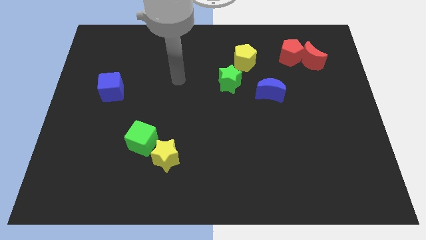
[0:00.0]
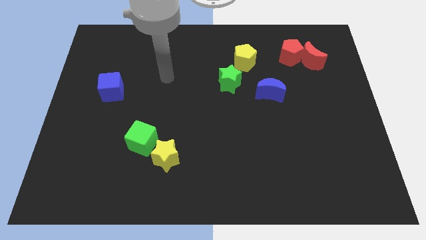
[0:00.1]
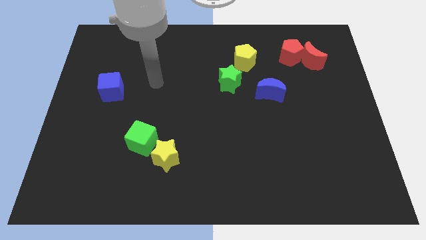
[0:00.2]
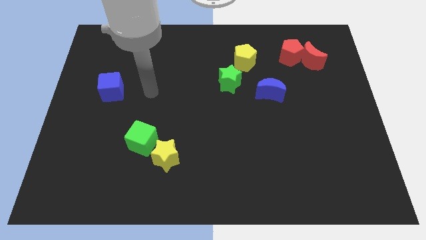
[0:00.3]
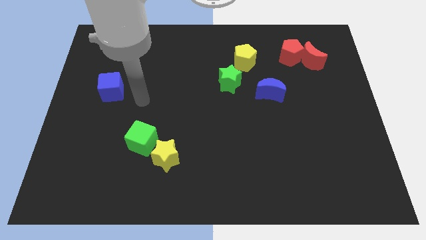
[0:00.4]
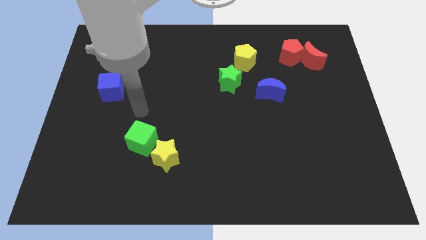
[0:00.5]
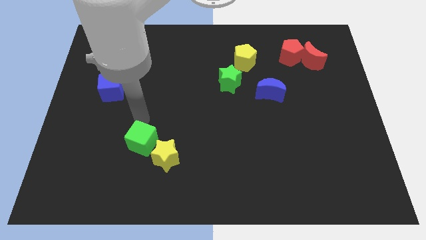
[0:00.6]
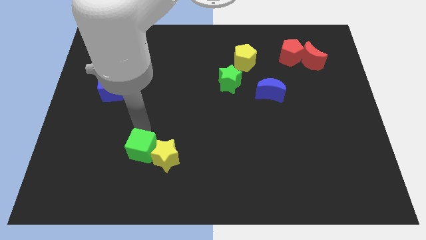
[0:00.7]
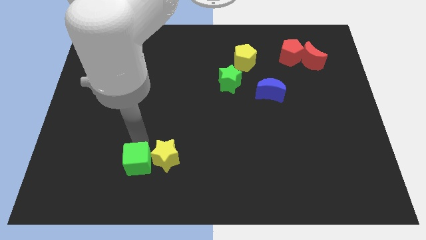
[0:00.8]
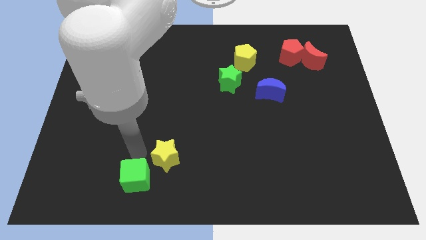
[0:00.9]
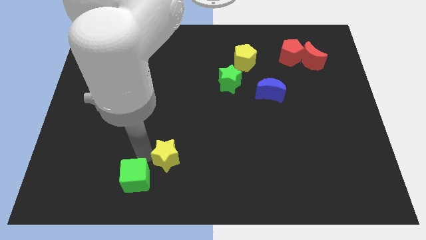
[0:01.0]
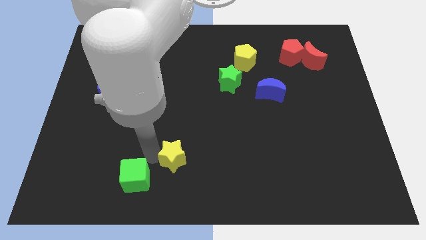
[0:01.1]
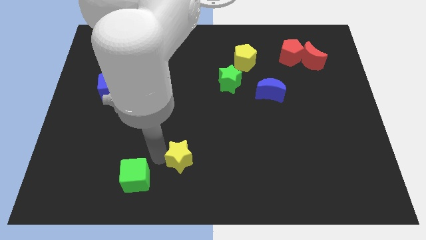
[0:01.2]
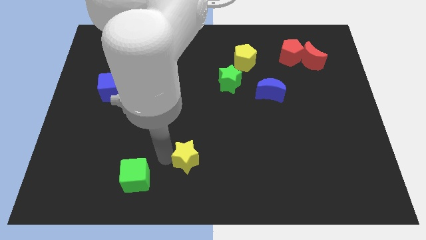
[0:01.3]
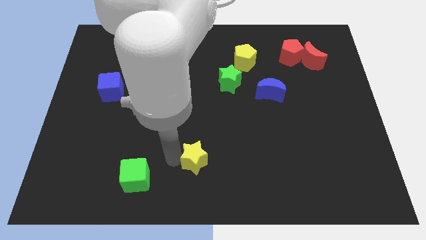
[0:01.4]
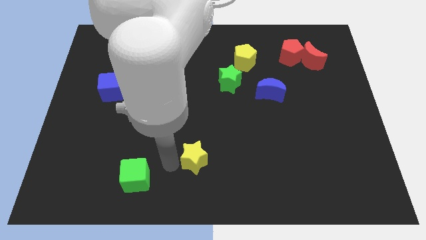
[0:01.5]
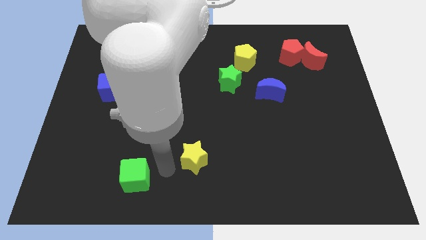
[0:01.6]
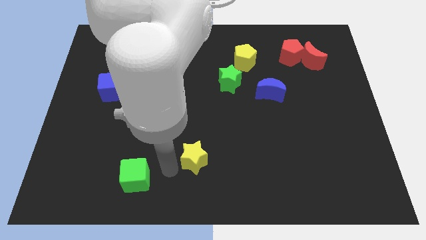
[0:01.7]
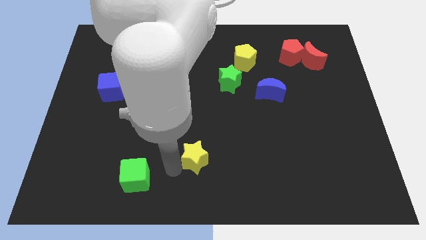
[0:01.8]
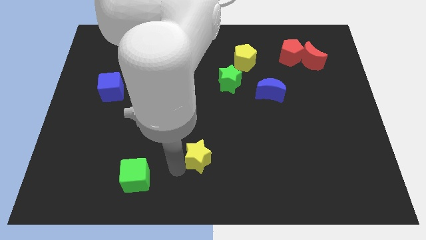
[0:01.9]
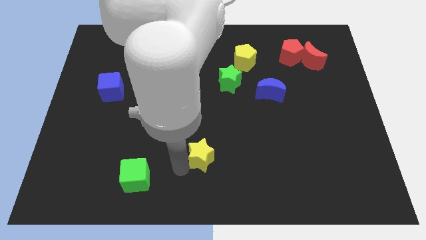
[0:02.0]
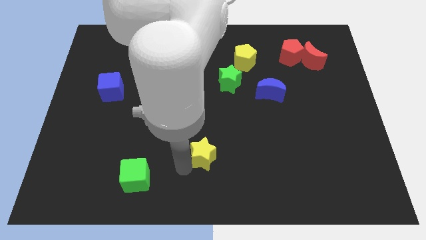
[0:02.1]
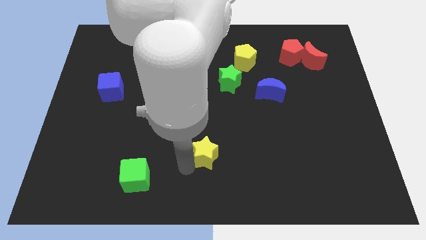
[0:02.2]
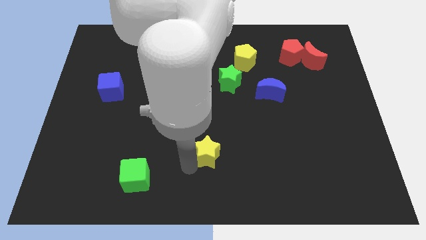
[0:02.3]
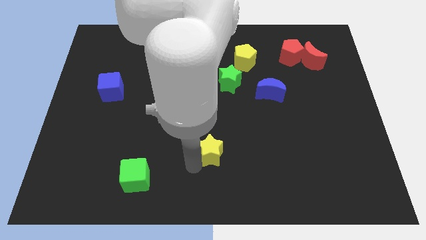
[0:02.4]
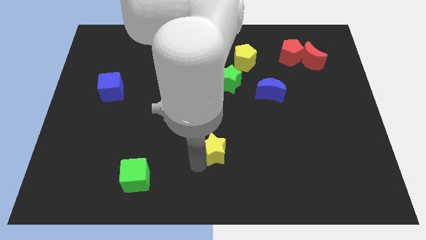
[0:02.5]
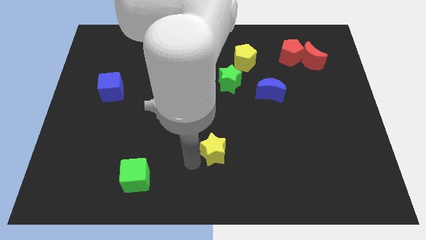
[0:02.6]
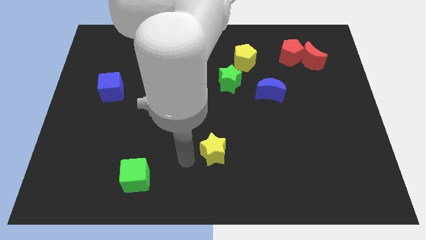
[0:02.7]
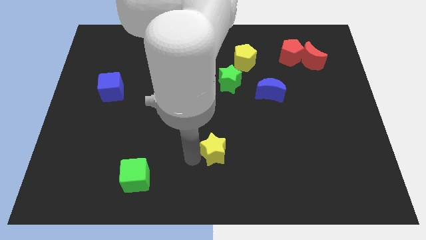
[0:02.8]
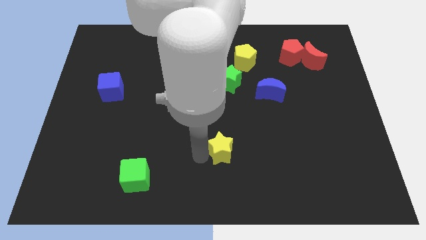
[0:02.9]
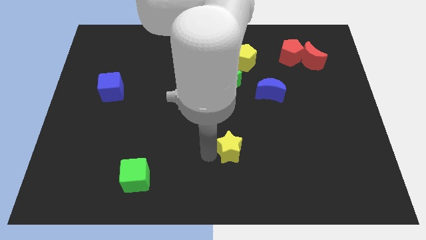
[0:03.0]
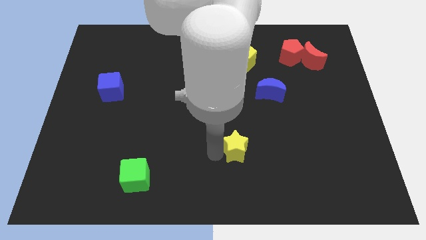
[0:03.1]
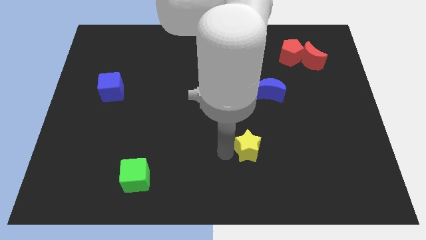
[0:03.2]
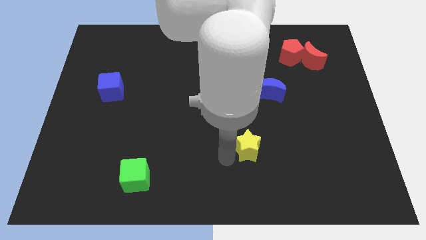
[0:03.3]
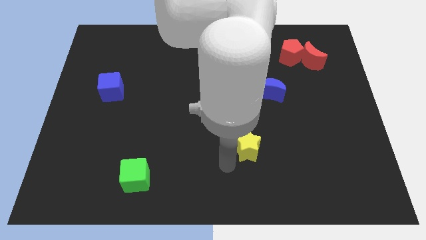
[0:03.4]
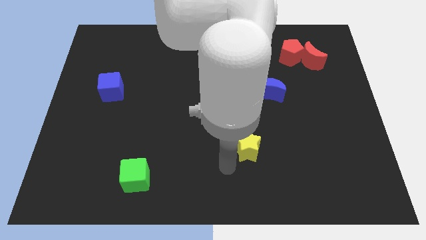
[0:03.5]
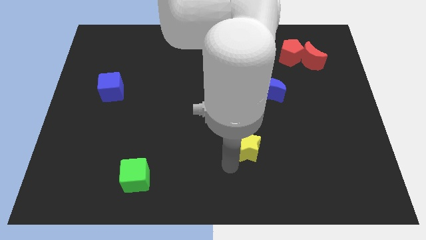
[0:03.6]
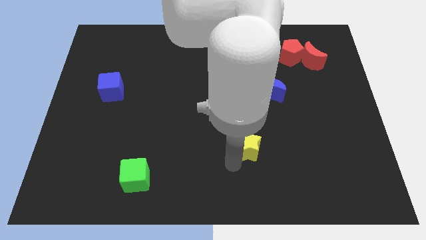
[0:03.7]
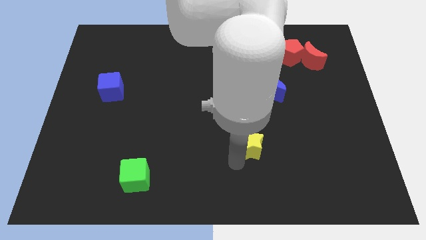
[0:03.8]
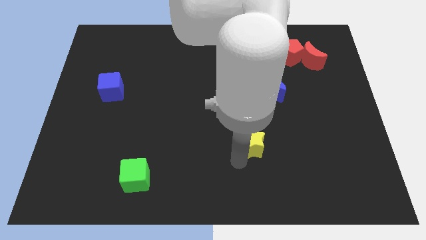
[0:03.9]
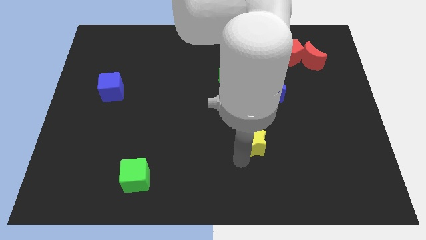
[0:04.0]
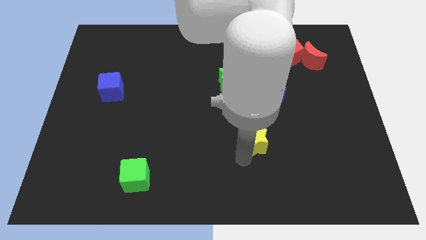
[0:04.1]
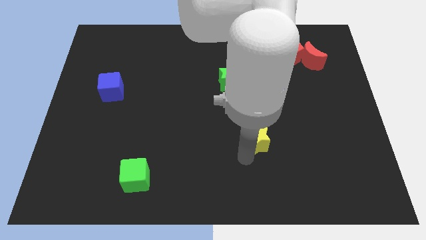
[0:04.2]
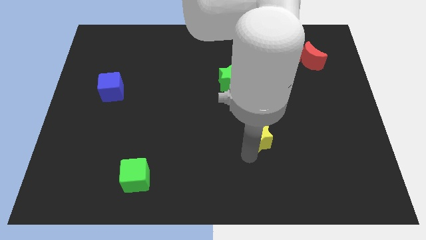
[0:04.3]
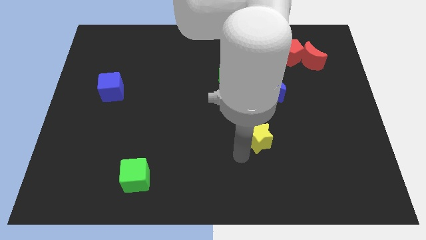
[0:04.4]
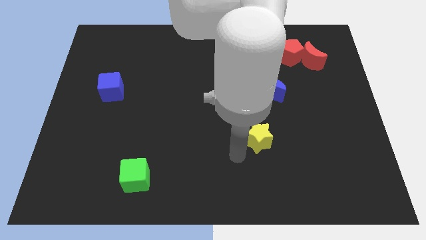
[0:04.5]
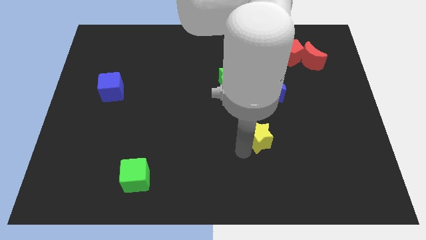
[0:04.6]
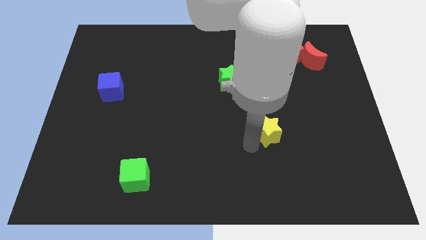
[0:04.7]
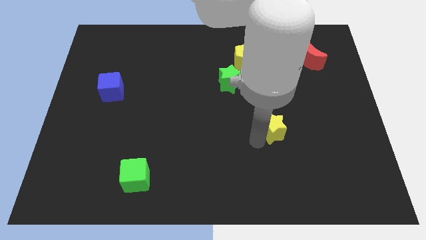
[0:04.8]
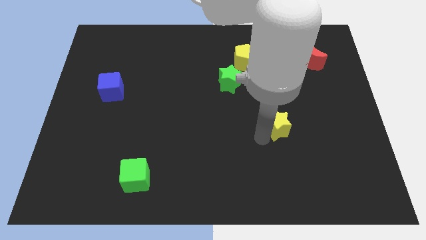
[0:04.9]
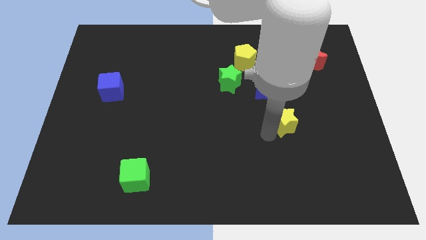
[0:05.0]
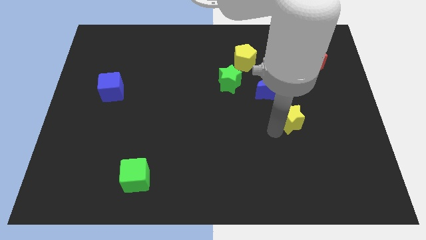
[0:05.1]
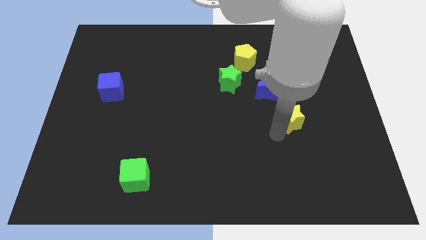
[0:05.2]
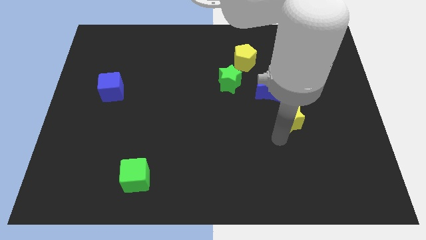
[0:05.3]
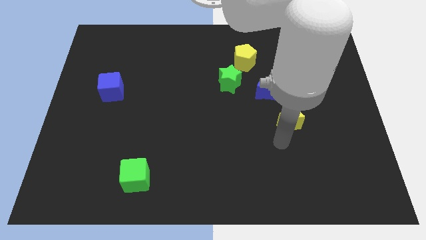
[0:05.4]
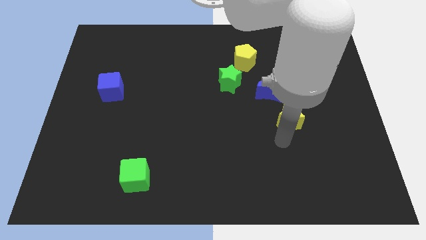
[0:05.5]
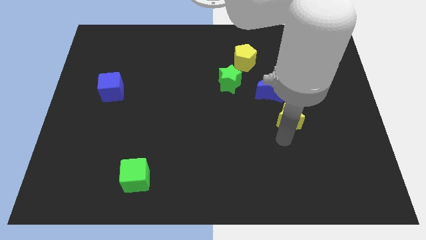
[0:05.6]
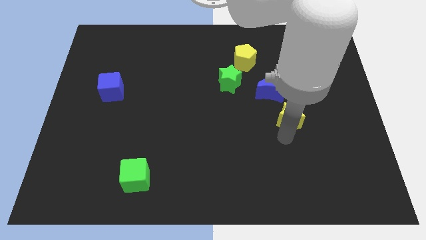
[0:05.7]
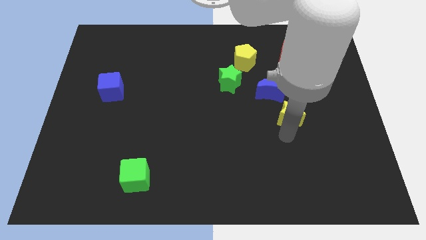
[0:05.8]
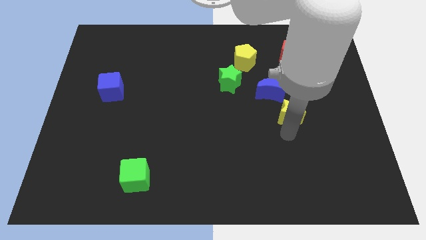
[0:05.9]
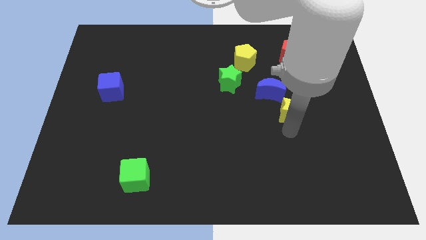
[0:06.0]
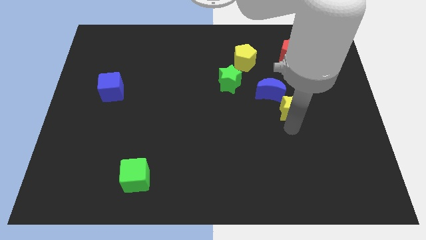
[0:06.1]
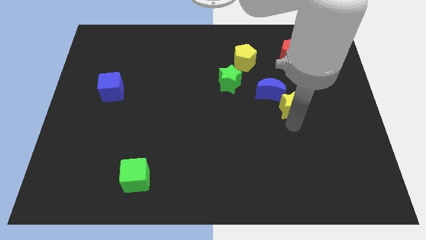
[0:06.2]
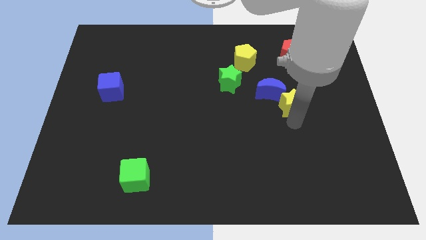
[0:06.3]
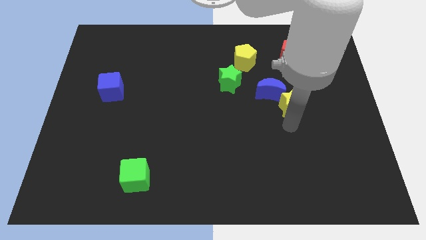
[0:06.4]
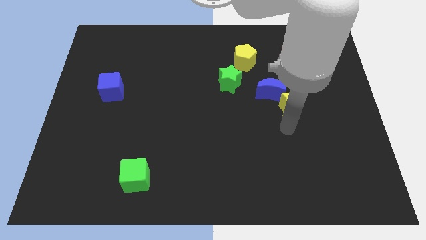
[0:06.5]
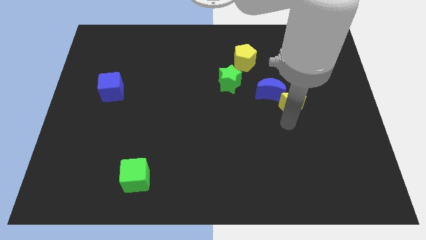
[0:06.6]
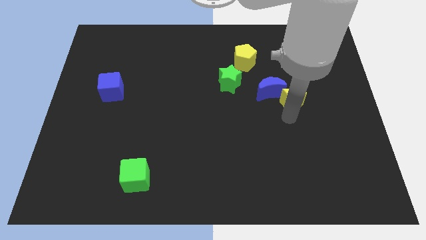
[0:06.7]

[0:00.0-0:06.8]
move the yellow star below the red pentagon
